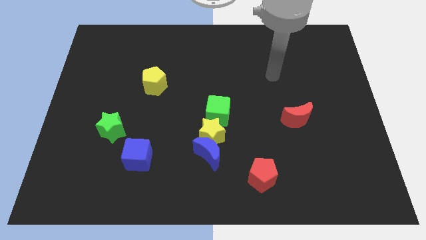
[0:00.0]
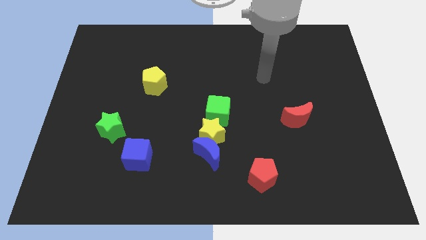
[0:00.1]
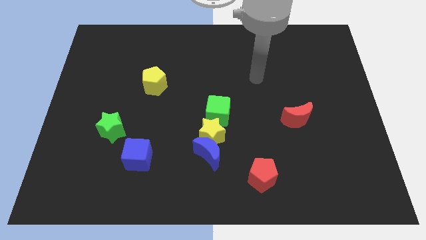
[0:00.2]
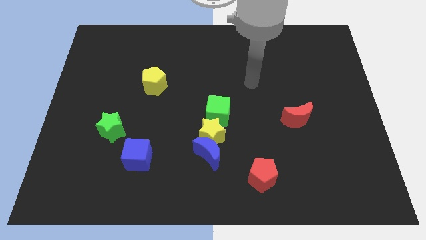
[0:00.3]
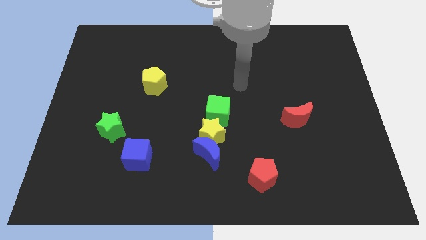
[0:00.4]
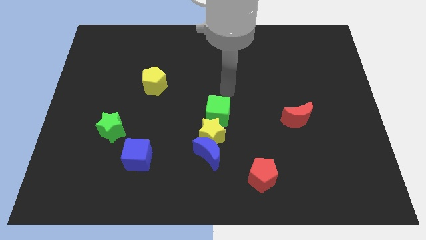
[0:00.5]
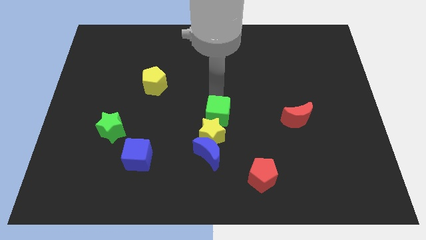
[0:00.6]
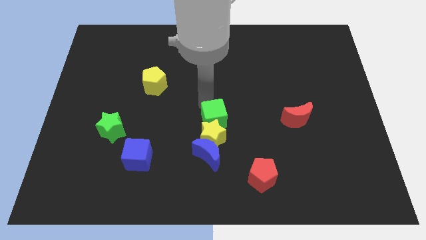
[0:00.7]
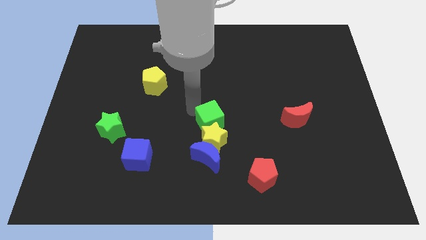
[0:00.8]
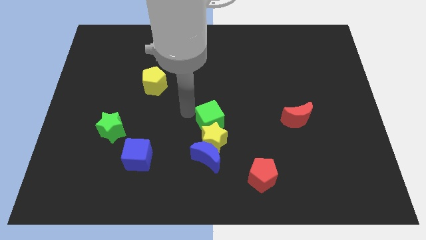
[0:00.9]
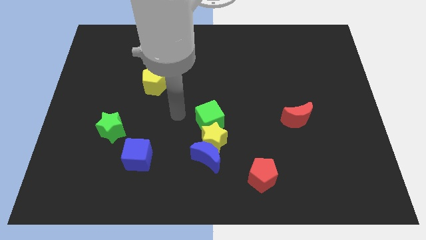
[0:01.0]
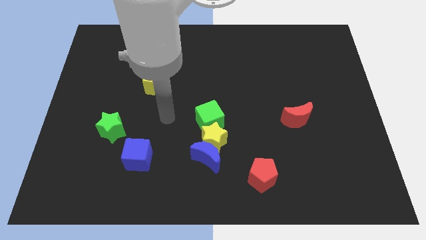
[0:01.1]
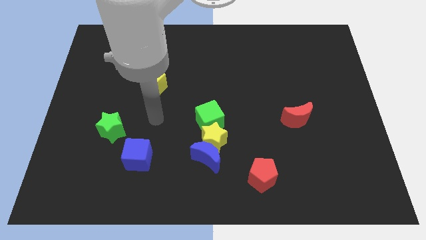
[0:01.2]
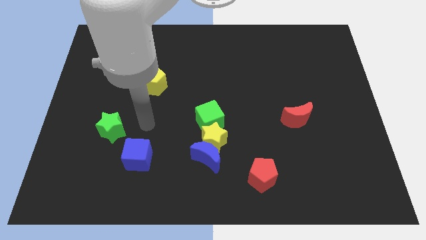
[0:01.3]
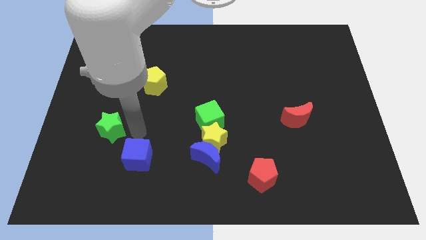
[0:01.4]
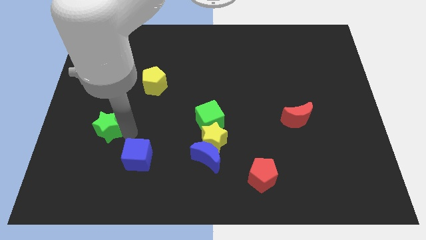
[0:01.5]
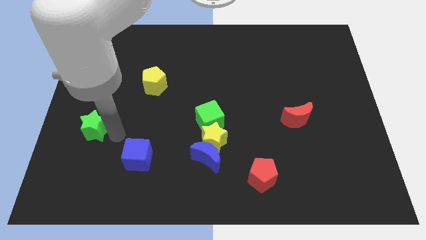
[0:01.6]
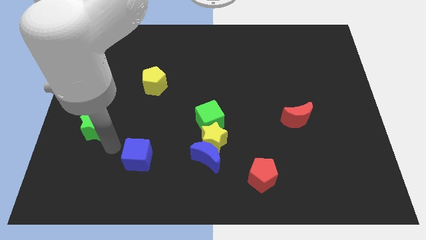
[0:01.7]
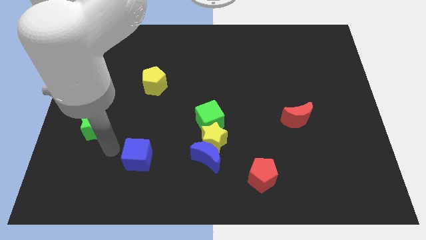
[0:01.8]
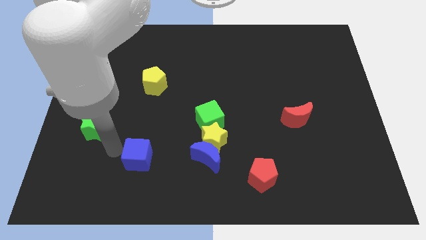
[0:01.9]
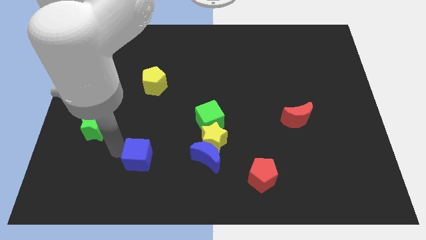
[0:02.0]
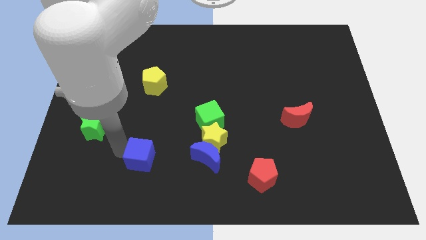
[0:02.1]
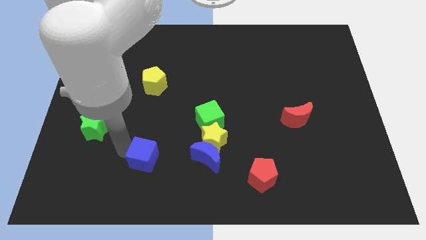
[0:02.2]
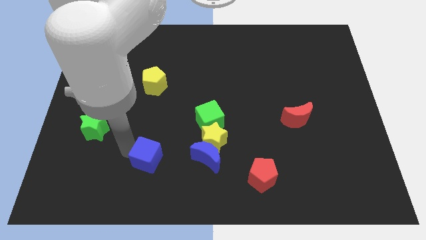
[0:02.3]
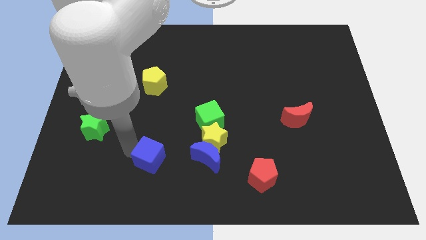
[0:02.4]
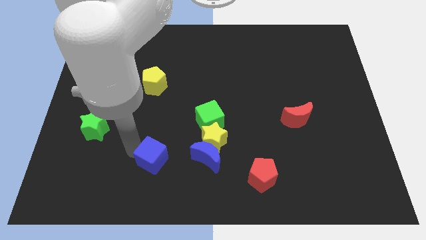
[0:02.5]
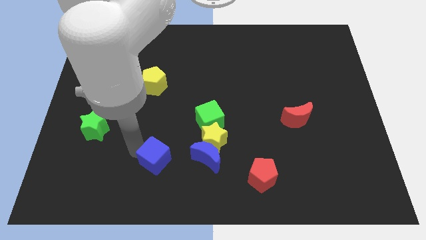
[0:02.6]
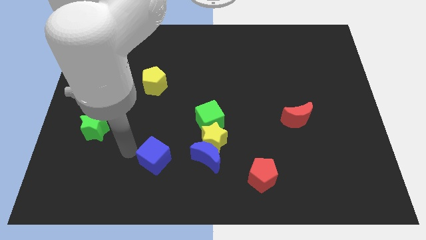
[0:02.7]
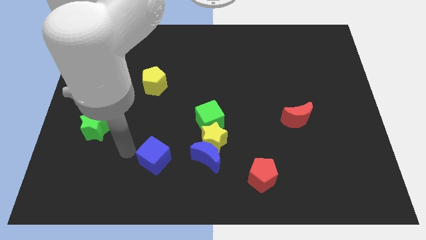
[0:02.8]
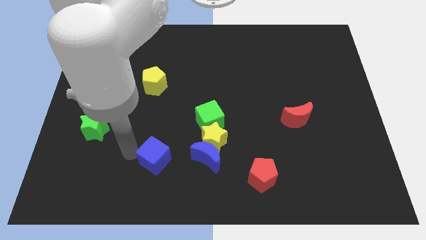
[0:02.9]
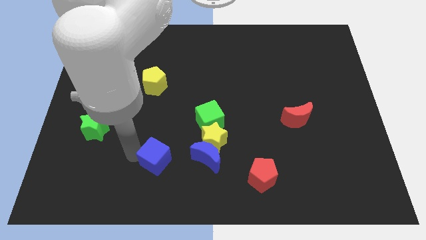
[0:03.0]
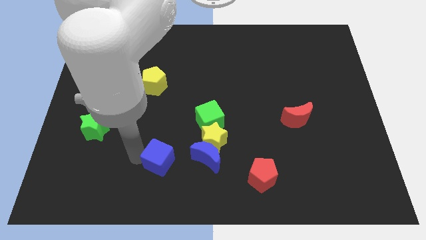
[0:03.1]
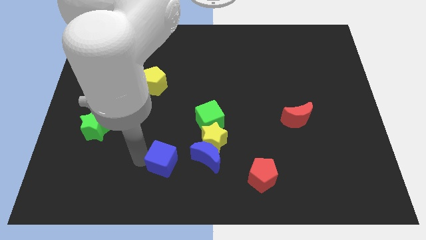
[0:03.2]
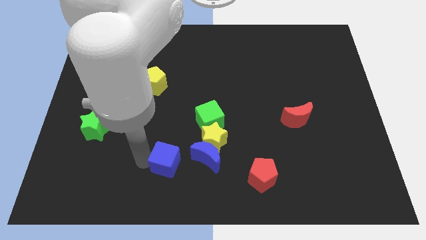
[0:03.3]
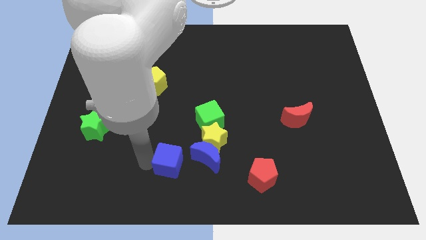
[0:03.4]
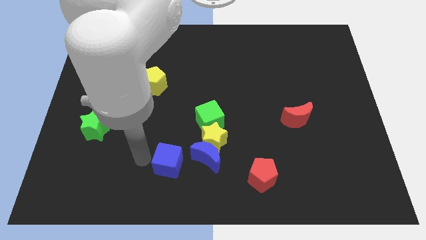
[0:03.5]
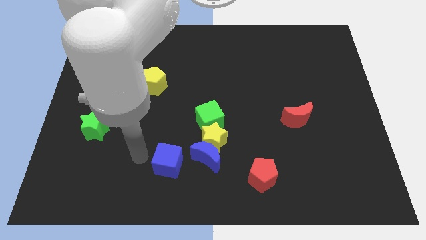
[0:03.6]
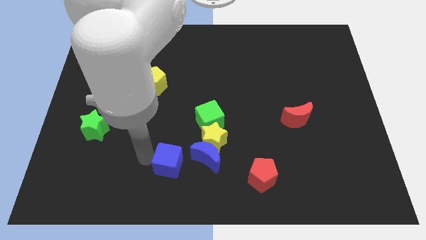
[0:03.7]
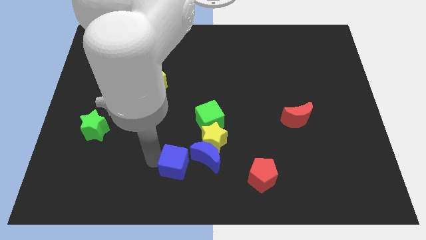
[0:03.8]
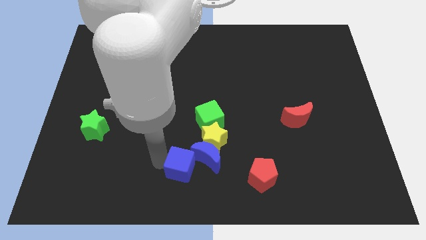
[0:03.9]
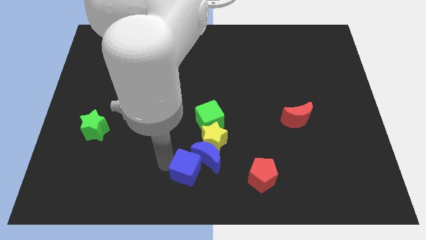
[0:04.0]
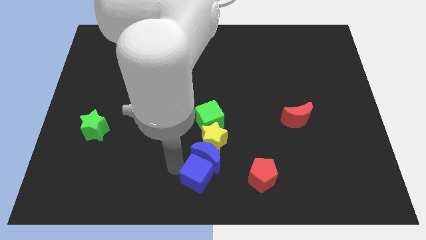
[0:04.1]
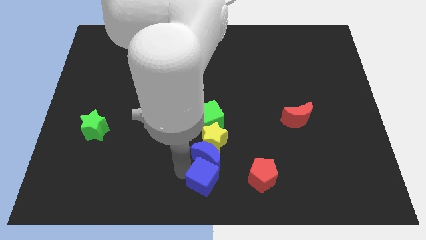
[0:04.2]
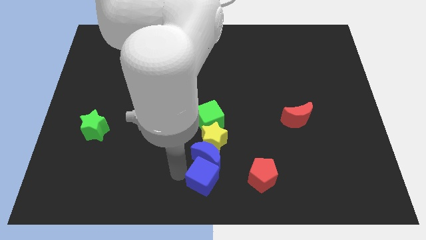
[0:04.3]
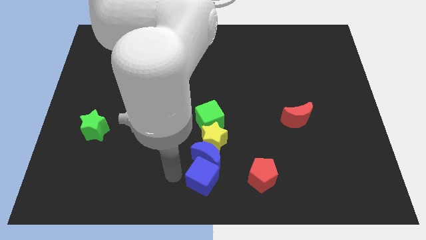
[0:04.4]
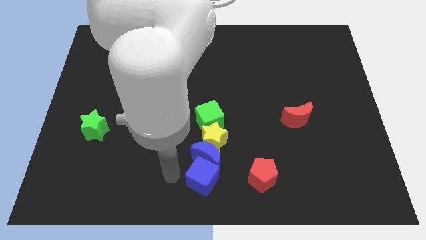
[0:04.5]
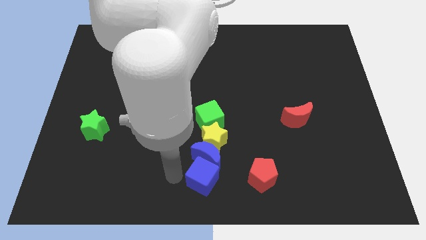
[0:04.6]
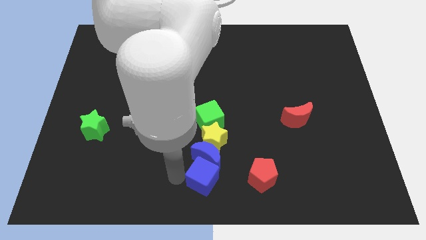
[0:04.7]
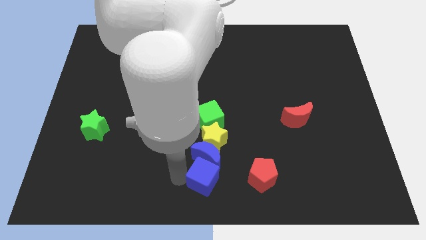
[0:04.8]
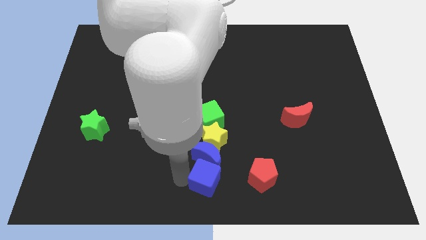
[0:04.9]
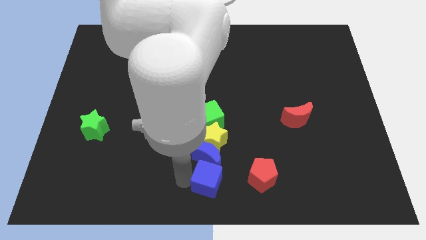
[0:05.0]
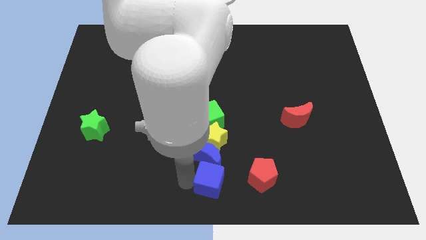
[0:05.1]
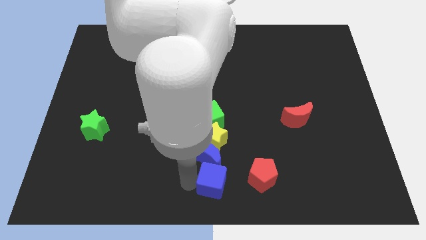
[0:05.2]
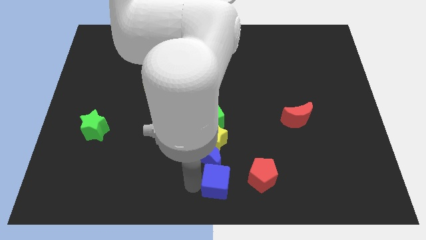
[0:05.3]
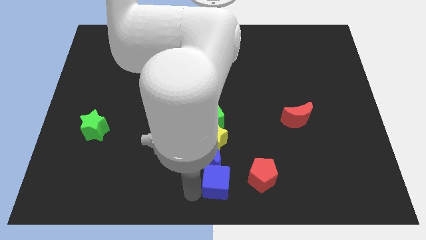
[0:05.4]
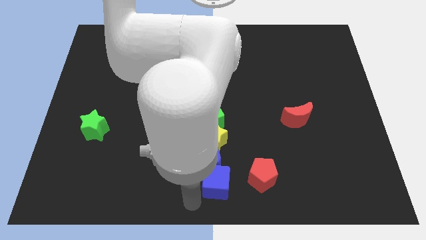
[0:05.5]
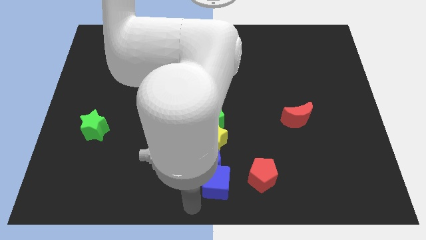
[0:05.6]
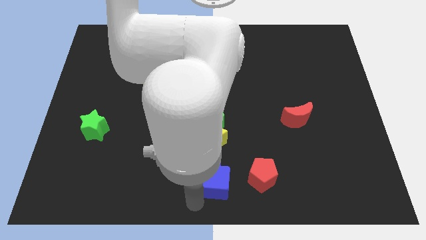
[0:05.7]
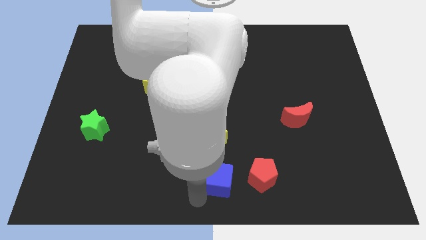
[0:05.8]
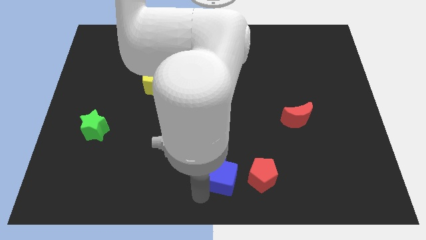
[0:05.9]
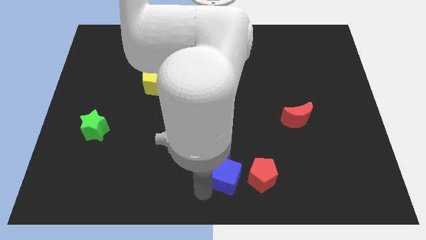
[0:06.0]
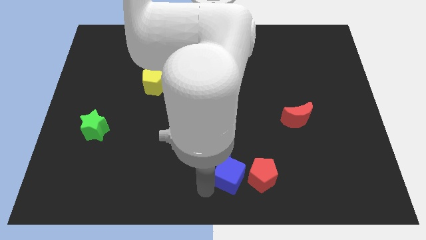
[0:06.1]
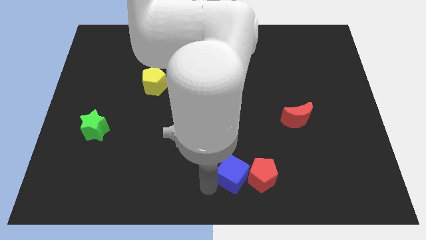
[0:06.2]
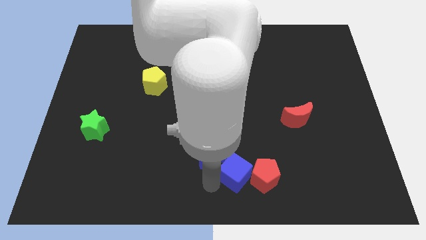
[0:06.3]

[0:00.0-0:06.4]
move the blue cube right

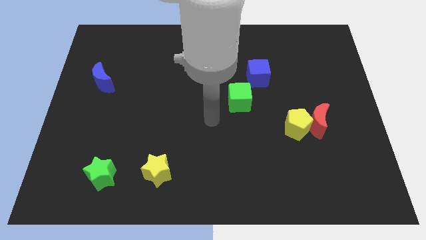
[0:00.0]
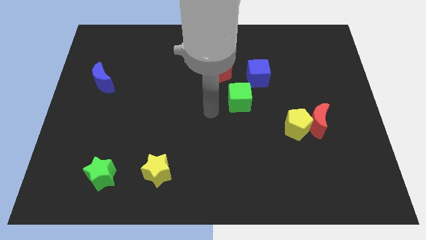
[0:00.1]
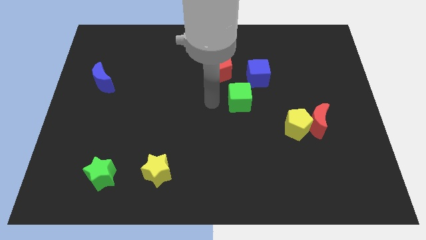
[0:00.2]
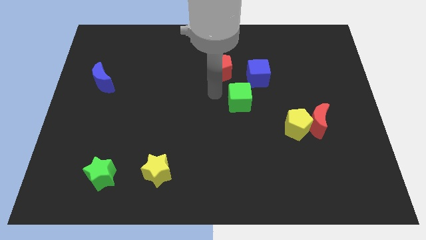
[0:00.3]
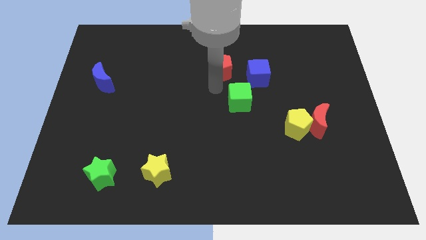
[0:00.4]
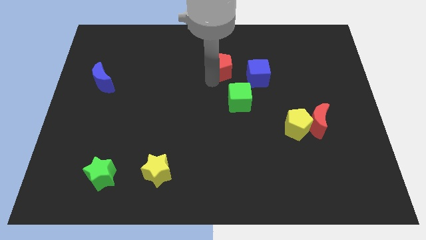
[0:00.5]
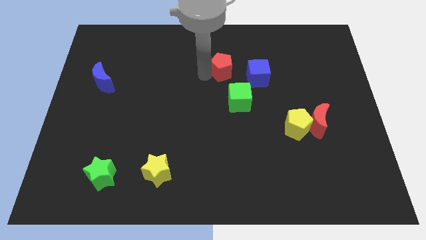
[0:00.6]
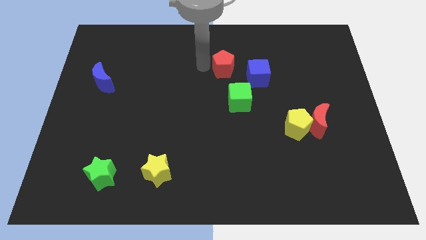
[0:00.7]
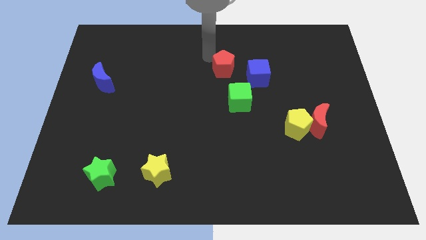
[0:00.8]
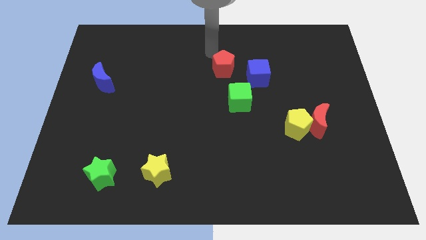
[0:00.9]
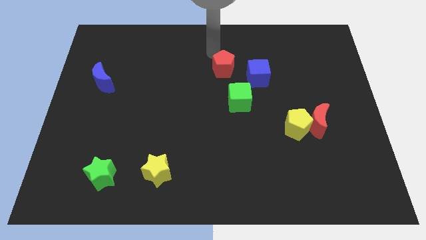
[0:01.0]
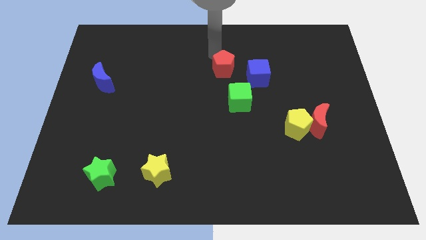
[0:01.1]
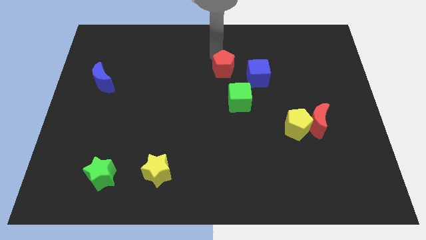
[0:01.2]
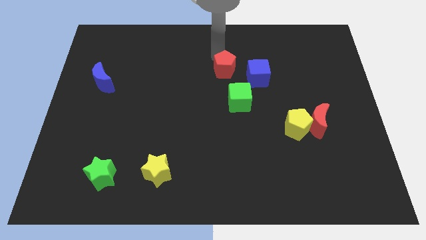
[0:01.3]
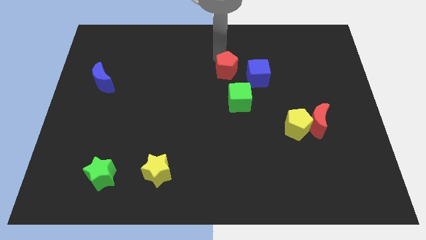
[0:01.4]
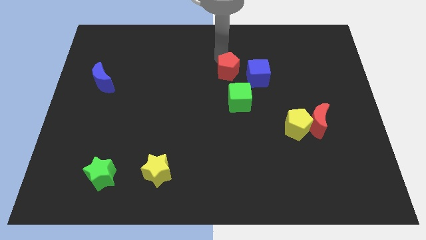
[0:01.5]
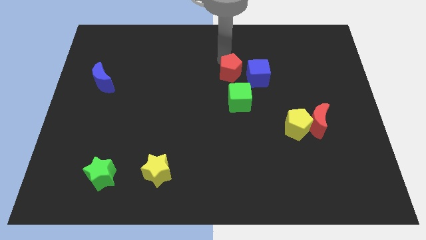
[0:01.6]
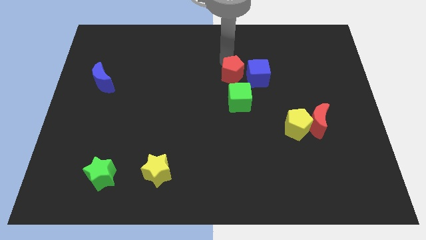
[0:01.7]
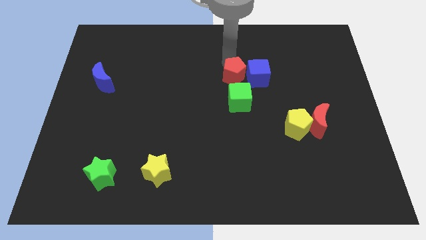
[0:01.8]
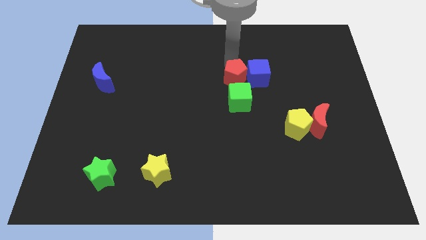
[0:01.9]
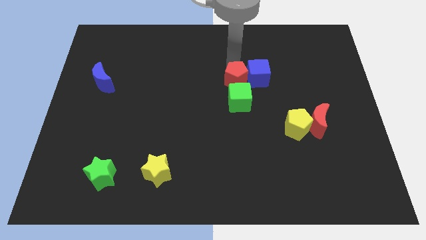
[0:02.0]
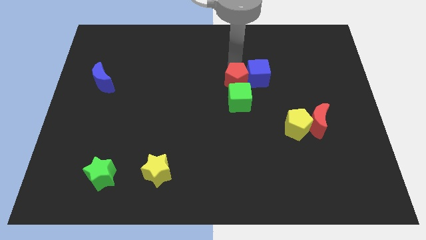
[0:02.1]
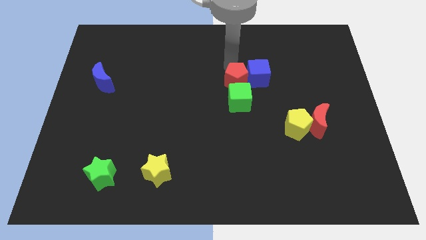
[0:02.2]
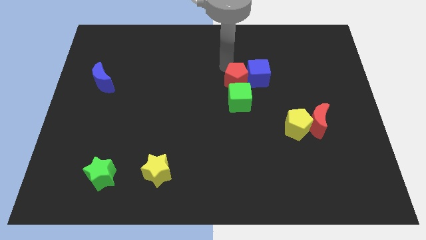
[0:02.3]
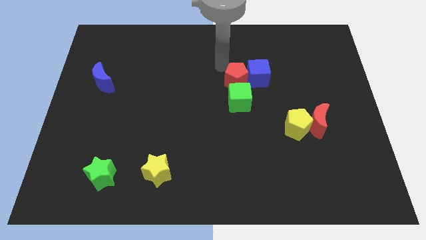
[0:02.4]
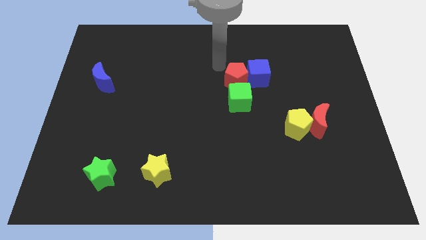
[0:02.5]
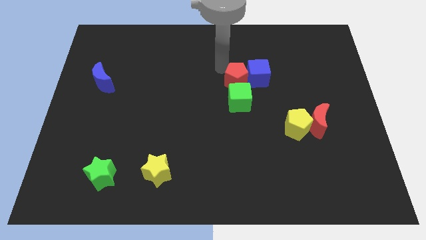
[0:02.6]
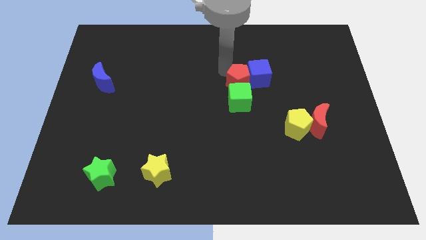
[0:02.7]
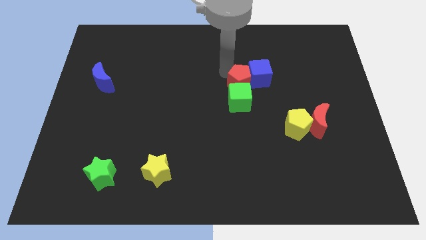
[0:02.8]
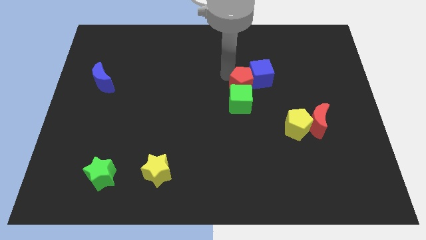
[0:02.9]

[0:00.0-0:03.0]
slightly move the red pentagon downwards and then right
